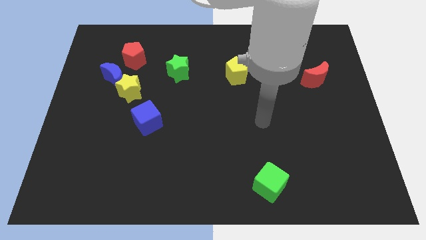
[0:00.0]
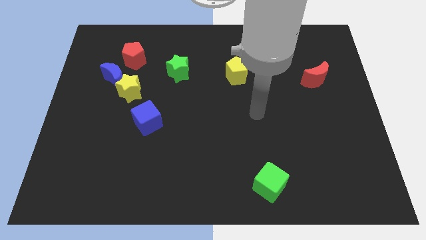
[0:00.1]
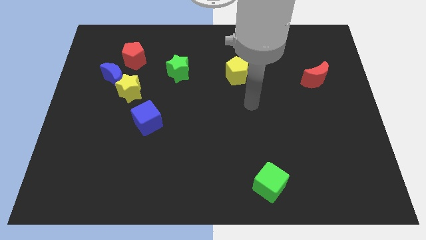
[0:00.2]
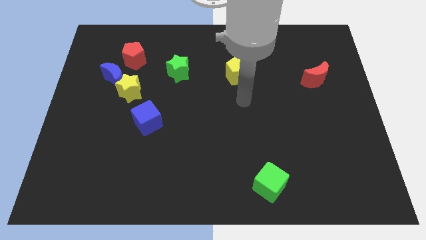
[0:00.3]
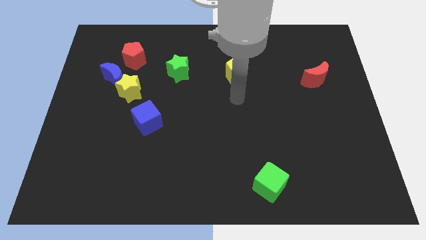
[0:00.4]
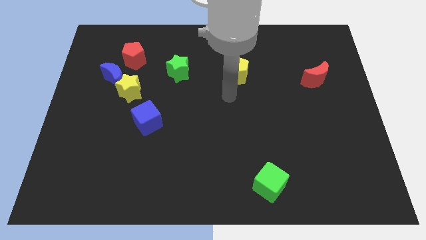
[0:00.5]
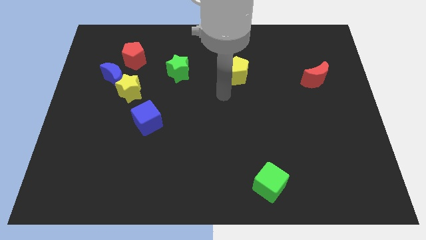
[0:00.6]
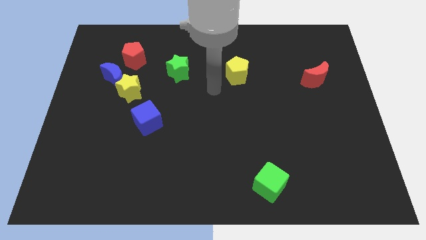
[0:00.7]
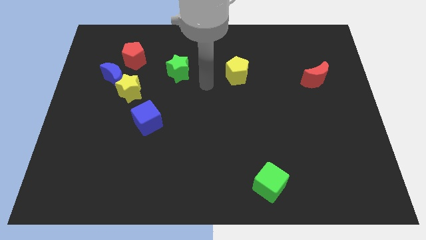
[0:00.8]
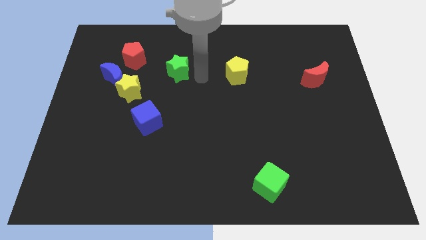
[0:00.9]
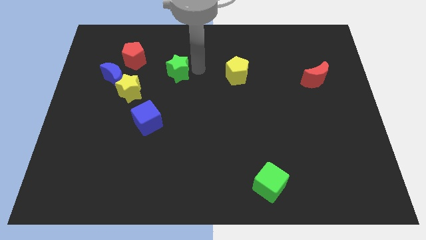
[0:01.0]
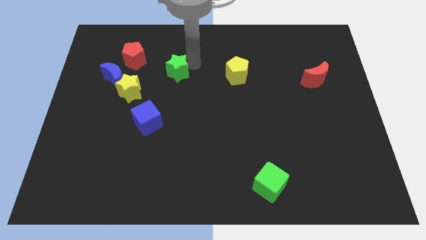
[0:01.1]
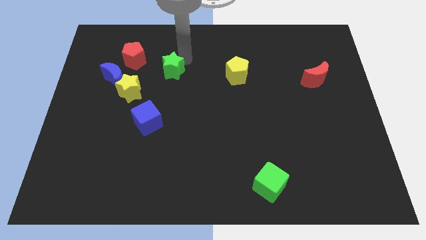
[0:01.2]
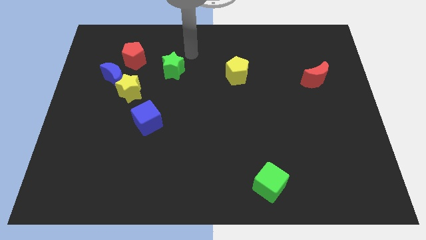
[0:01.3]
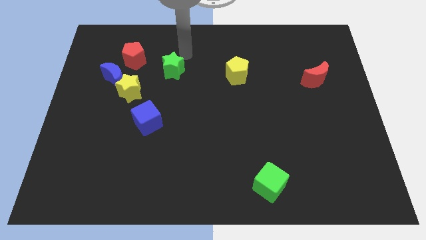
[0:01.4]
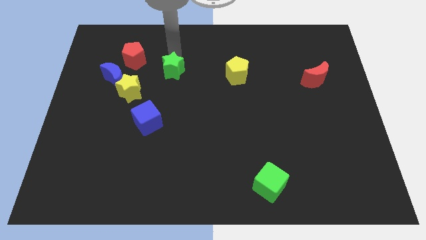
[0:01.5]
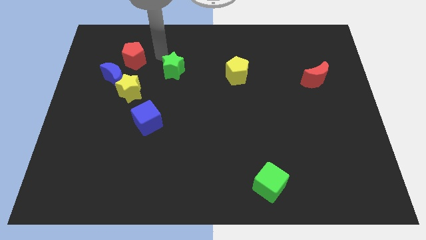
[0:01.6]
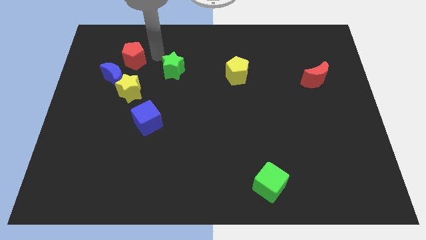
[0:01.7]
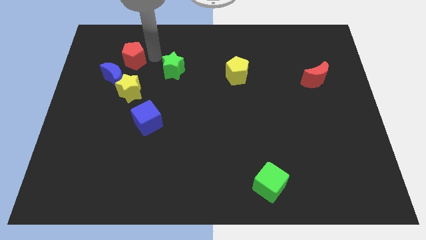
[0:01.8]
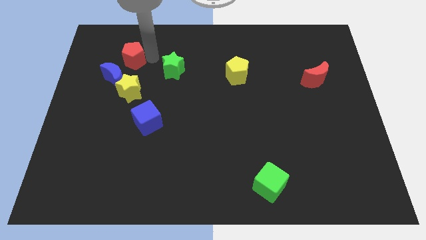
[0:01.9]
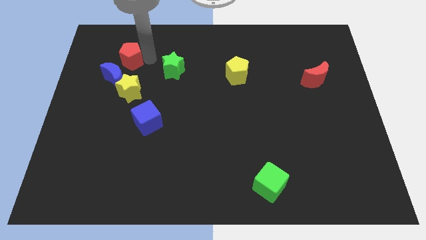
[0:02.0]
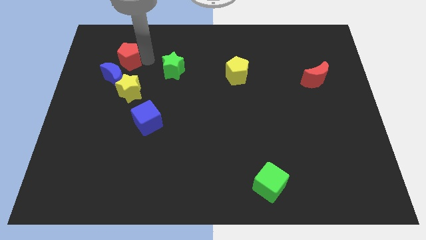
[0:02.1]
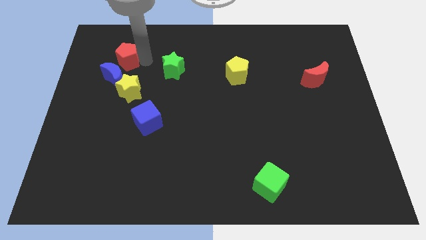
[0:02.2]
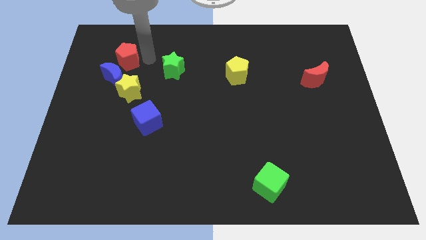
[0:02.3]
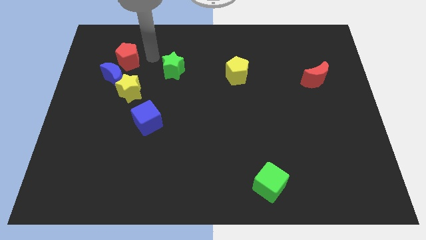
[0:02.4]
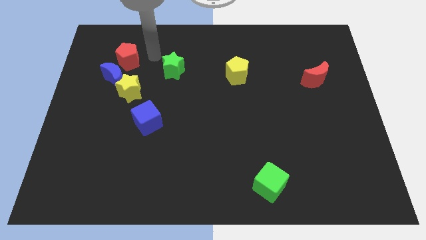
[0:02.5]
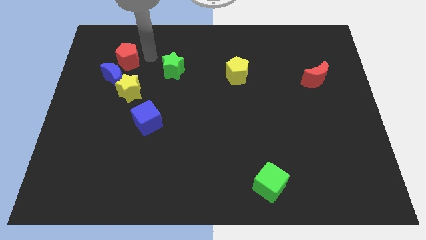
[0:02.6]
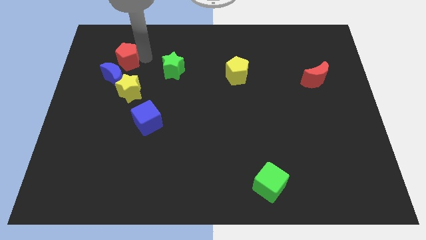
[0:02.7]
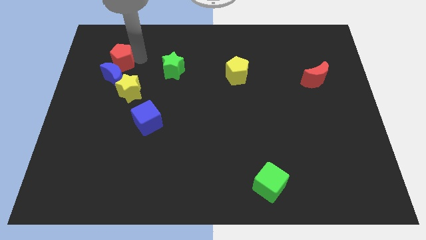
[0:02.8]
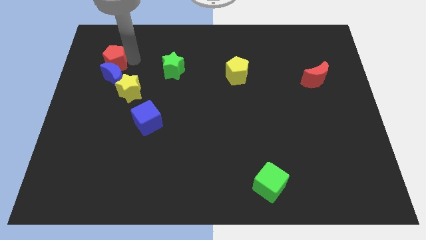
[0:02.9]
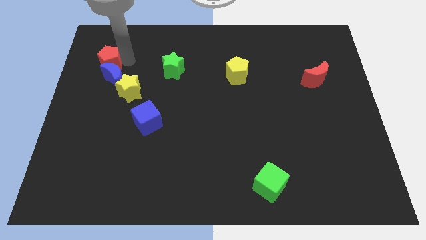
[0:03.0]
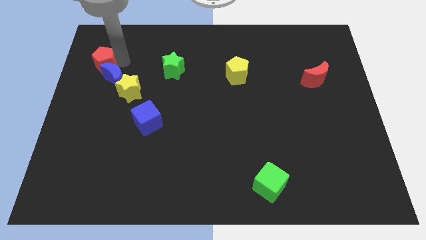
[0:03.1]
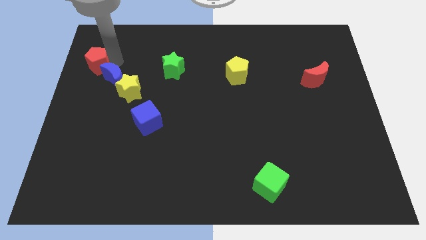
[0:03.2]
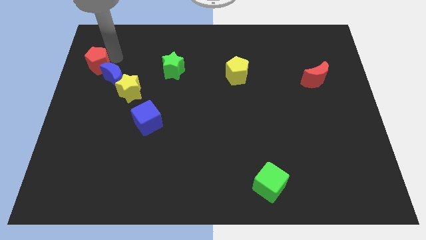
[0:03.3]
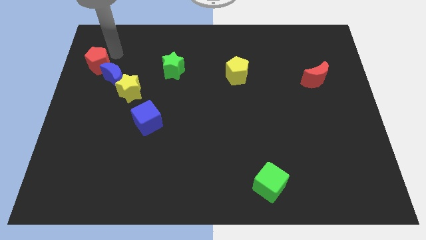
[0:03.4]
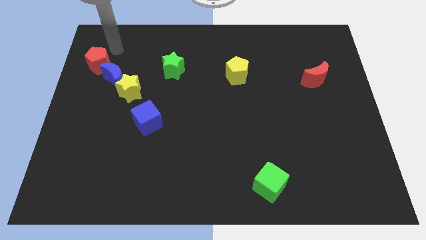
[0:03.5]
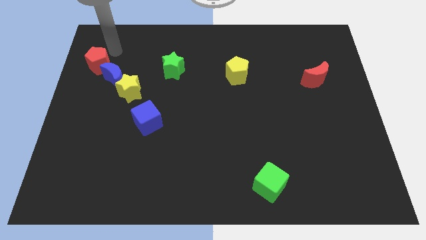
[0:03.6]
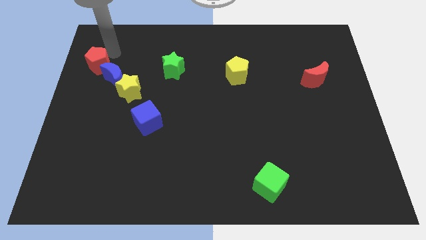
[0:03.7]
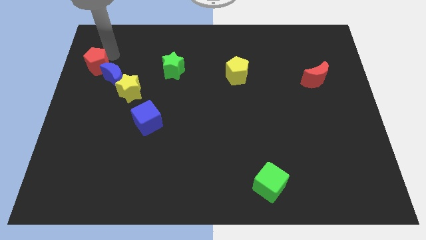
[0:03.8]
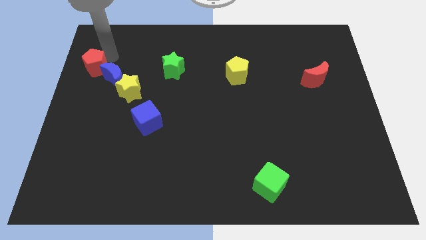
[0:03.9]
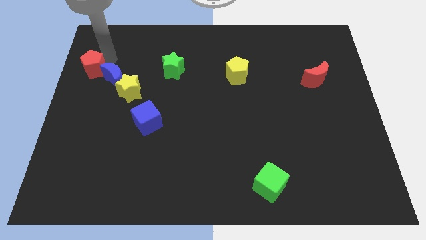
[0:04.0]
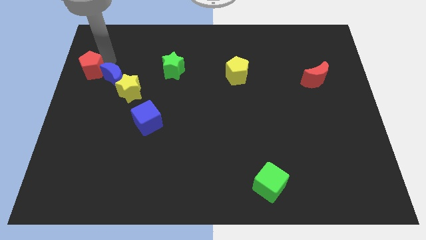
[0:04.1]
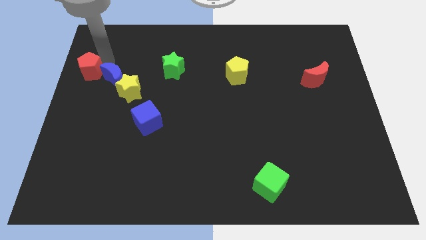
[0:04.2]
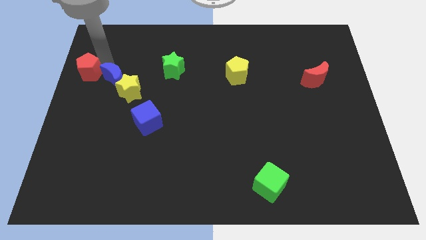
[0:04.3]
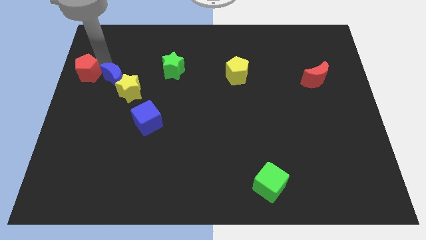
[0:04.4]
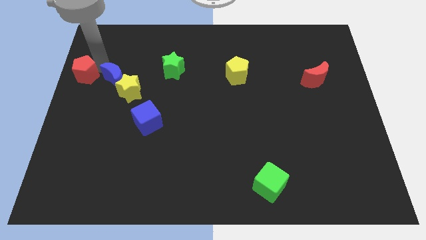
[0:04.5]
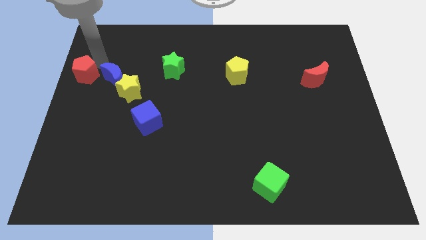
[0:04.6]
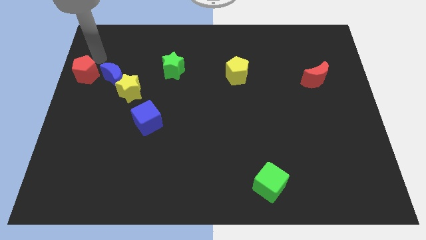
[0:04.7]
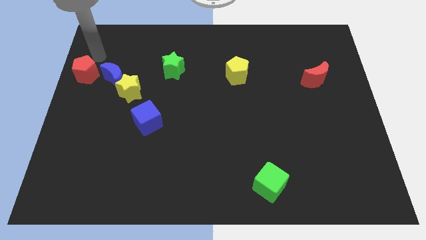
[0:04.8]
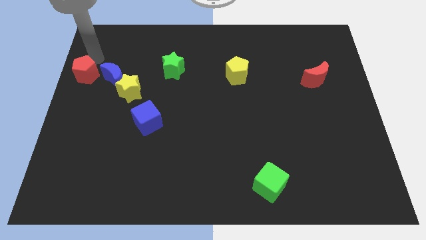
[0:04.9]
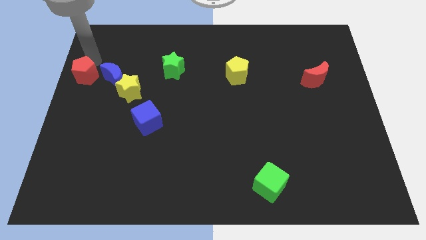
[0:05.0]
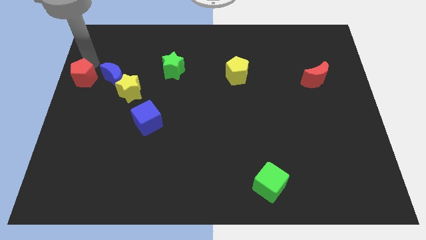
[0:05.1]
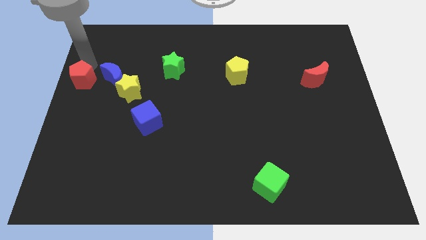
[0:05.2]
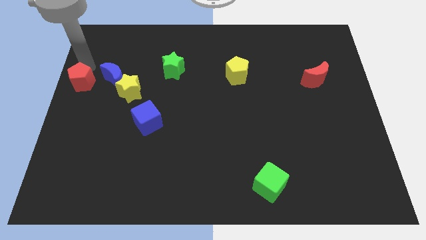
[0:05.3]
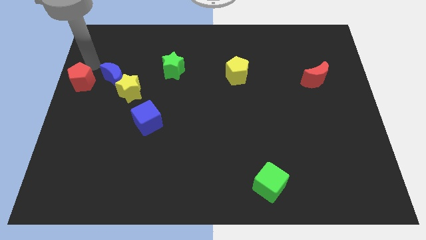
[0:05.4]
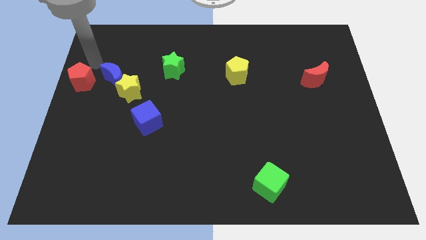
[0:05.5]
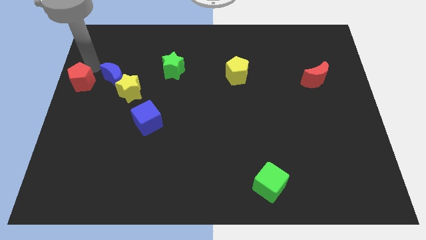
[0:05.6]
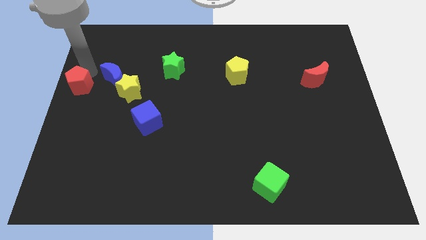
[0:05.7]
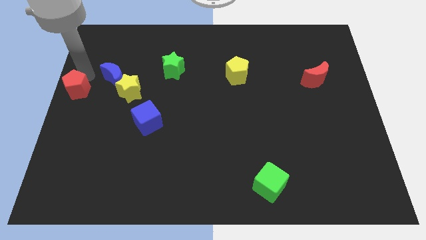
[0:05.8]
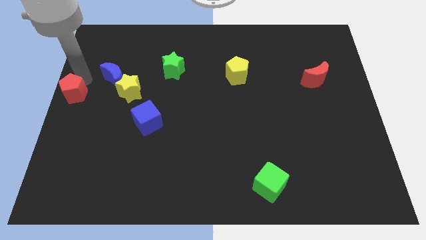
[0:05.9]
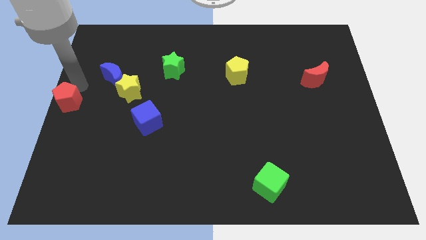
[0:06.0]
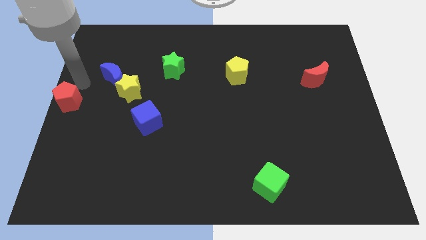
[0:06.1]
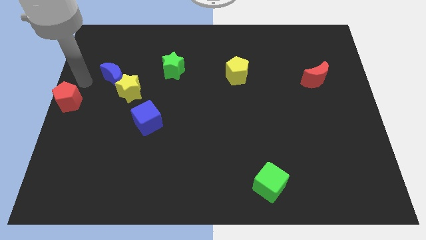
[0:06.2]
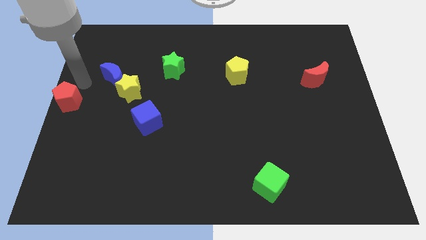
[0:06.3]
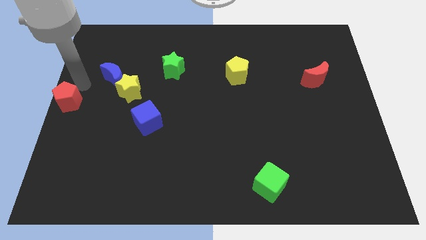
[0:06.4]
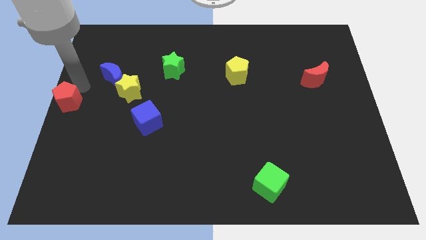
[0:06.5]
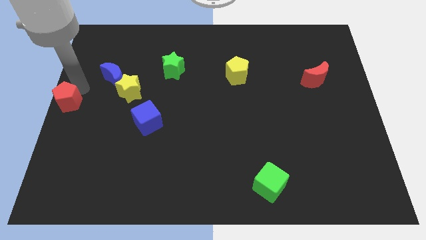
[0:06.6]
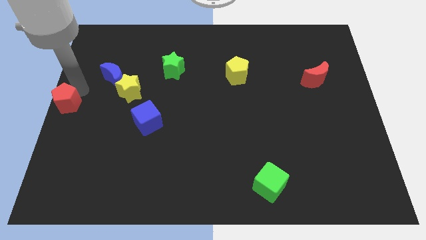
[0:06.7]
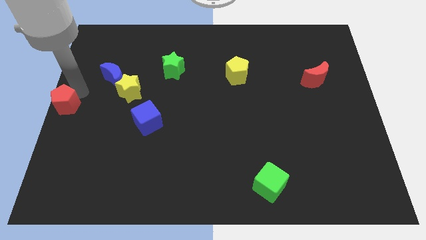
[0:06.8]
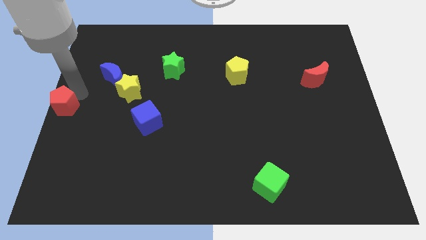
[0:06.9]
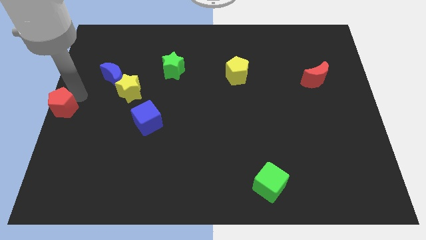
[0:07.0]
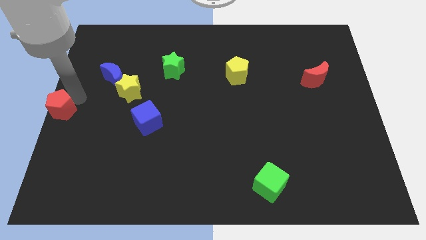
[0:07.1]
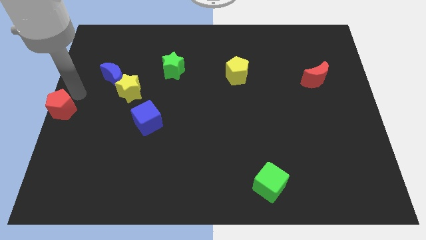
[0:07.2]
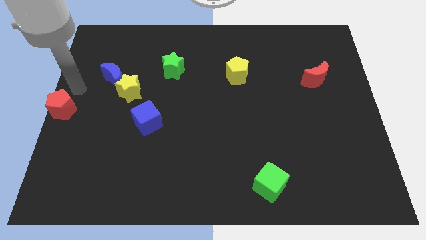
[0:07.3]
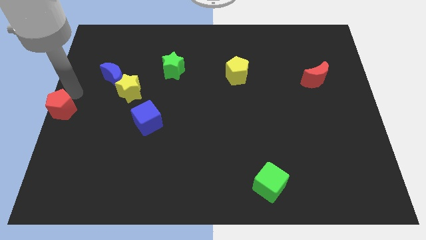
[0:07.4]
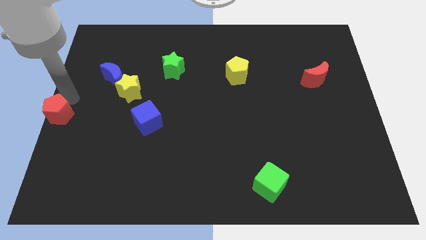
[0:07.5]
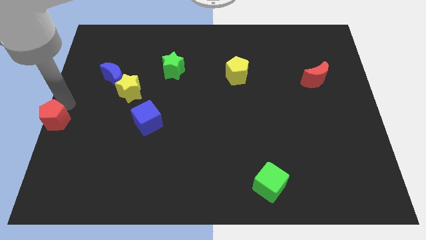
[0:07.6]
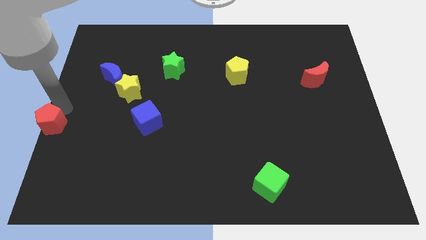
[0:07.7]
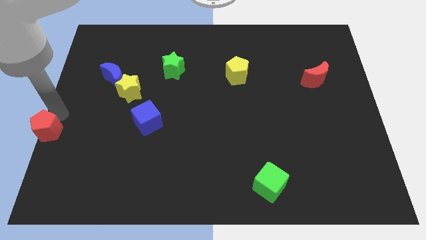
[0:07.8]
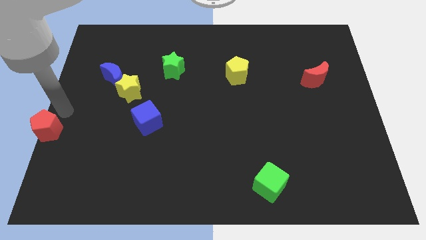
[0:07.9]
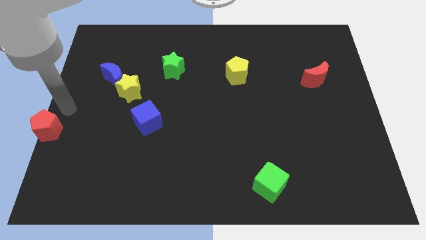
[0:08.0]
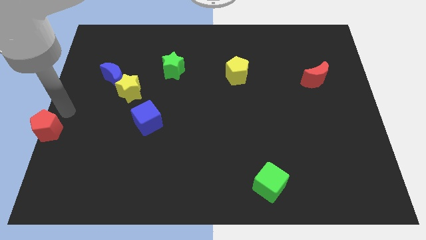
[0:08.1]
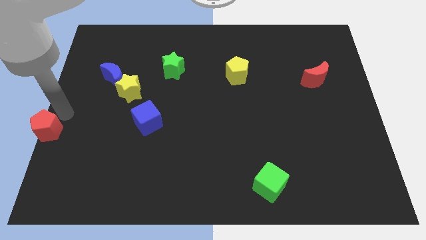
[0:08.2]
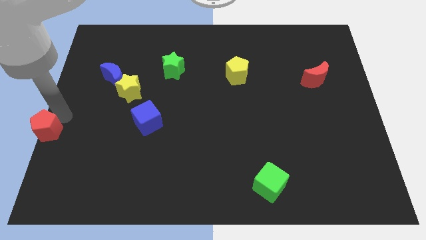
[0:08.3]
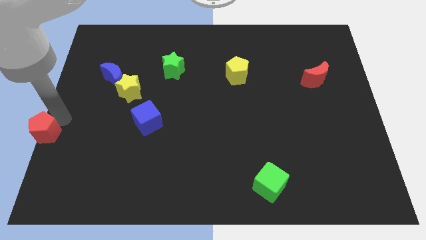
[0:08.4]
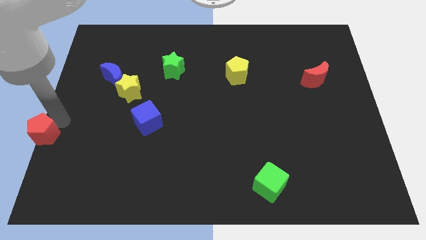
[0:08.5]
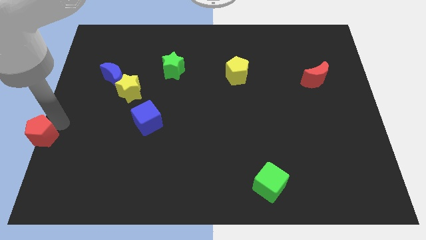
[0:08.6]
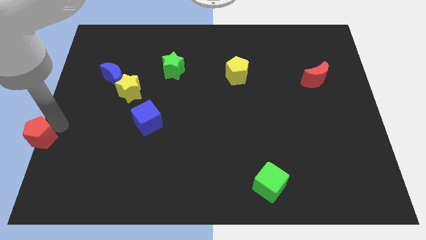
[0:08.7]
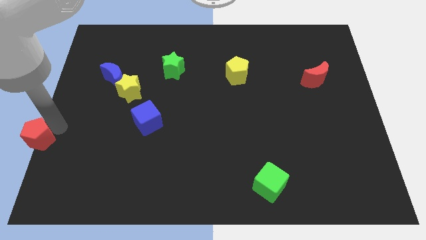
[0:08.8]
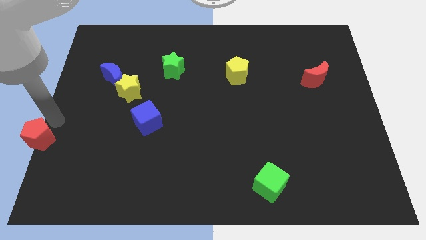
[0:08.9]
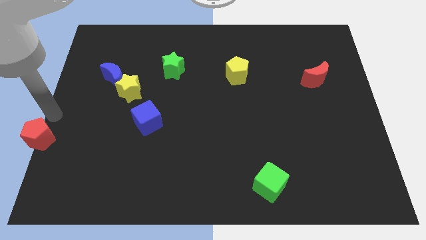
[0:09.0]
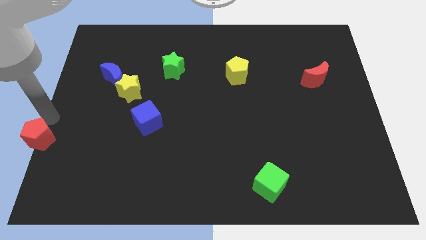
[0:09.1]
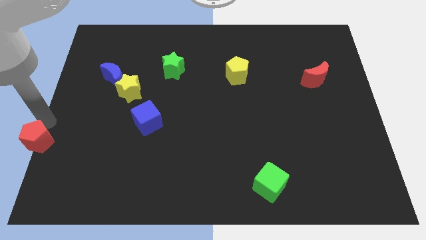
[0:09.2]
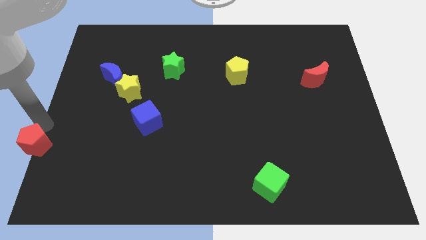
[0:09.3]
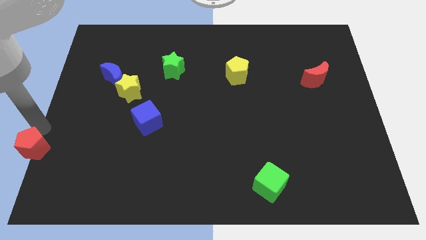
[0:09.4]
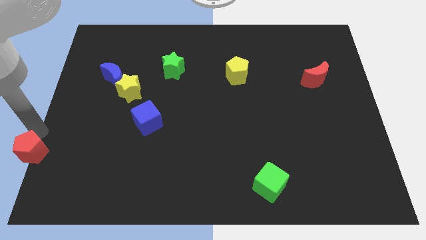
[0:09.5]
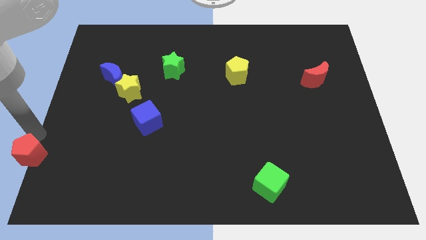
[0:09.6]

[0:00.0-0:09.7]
slide the red pentagon to the bottom left of the board
